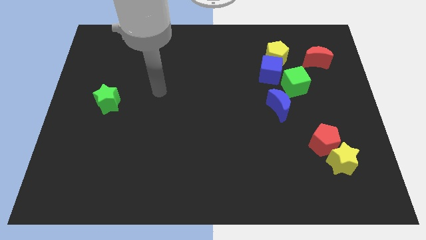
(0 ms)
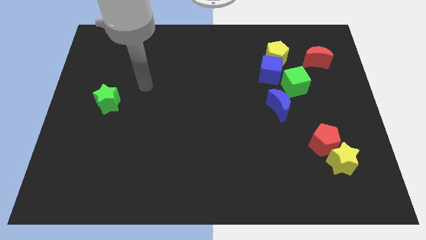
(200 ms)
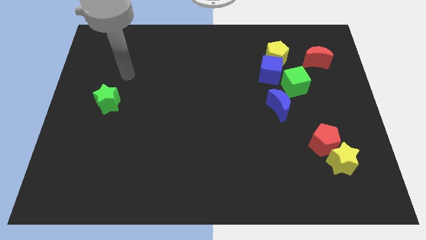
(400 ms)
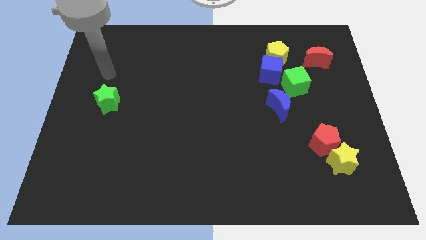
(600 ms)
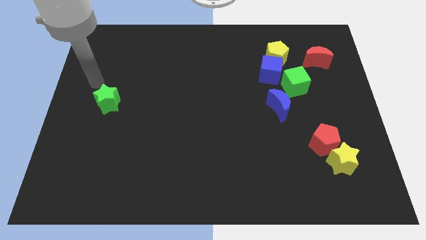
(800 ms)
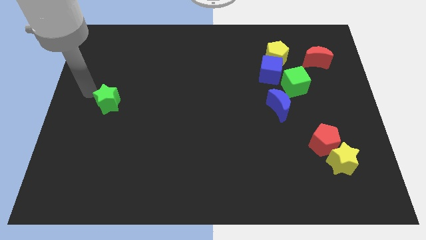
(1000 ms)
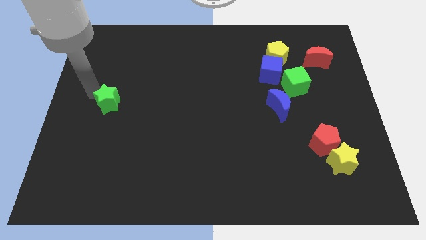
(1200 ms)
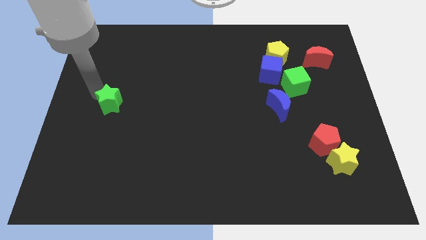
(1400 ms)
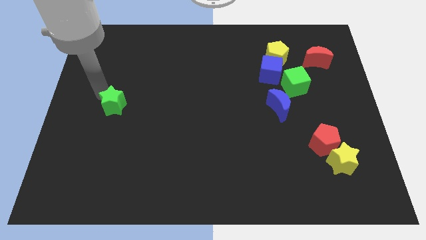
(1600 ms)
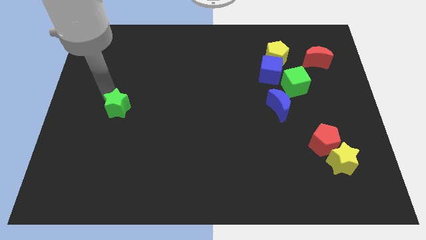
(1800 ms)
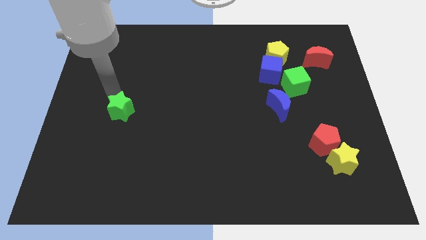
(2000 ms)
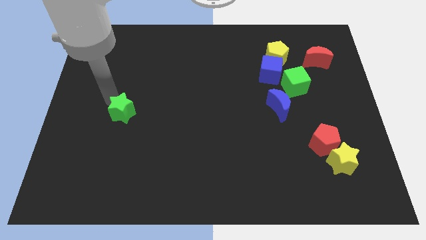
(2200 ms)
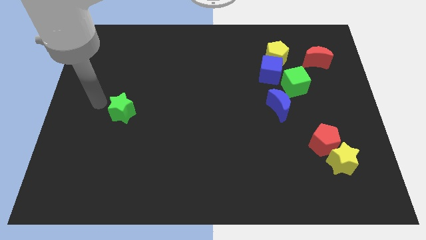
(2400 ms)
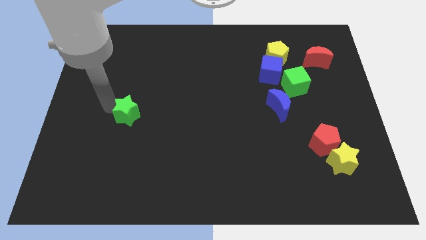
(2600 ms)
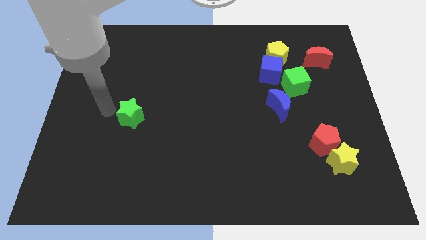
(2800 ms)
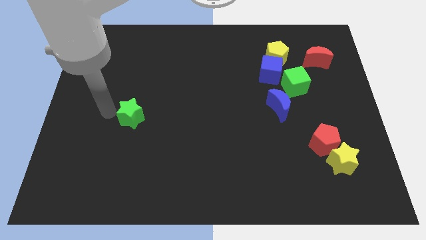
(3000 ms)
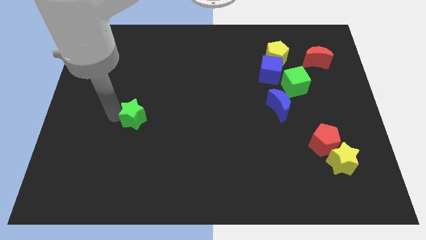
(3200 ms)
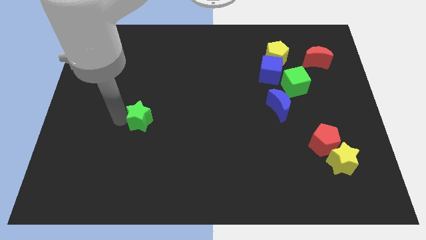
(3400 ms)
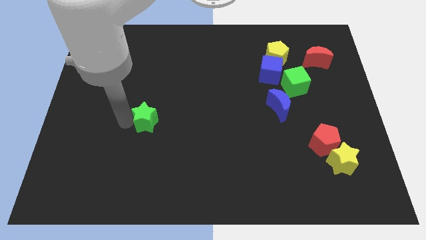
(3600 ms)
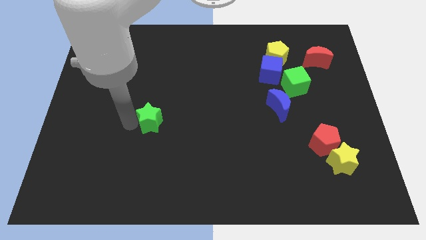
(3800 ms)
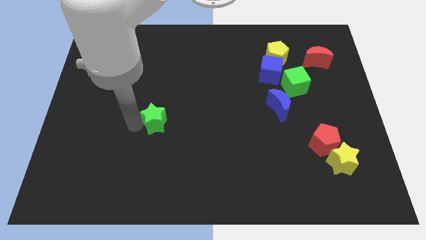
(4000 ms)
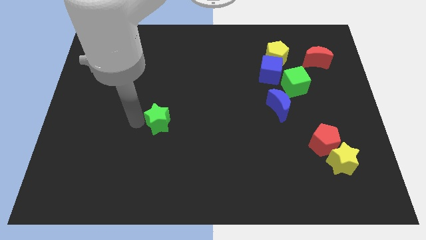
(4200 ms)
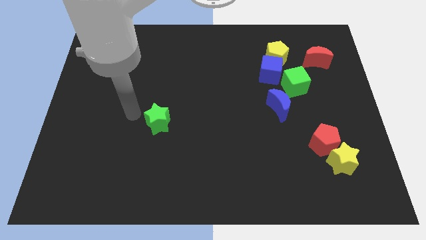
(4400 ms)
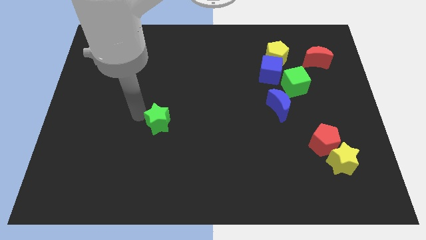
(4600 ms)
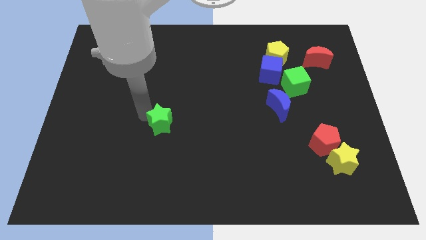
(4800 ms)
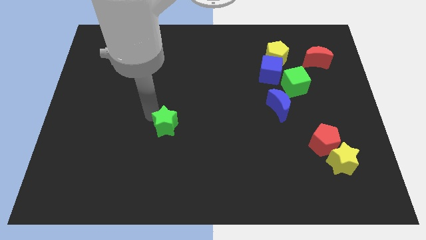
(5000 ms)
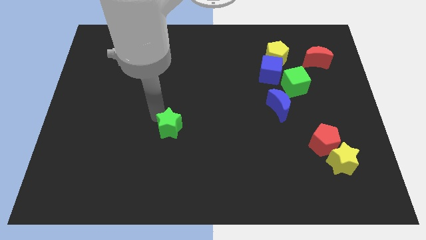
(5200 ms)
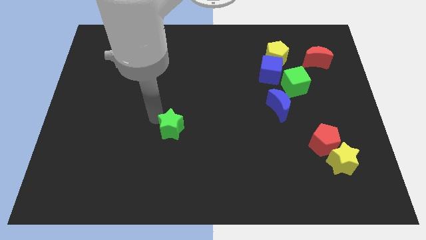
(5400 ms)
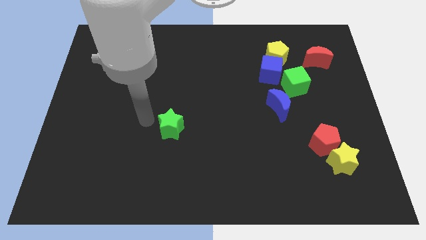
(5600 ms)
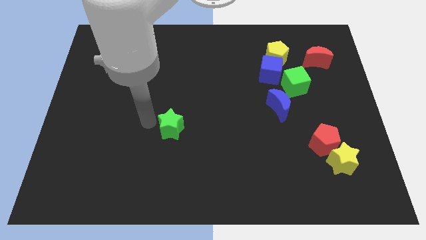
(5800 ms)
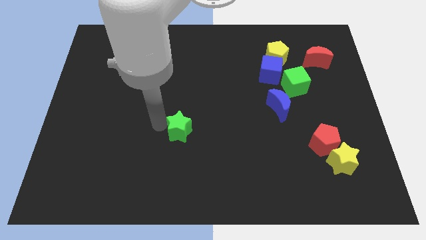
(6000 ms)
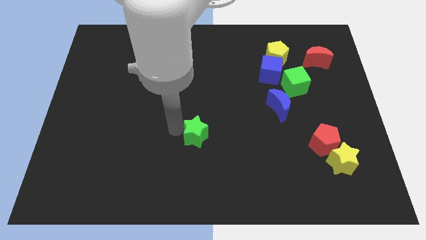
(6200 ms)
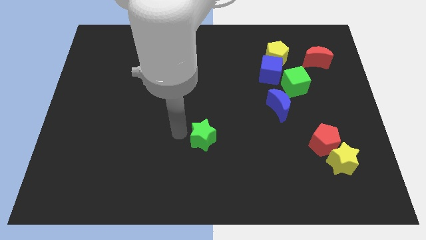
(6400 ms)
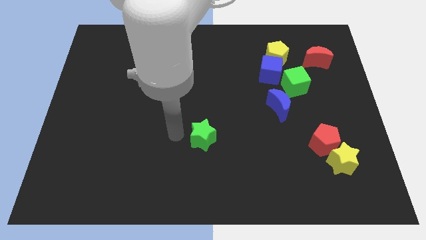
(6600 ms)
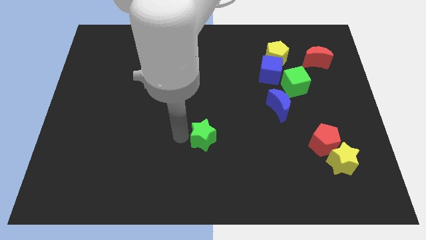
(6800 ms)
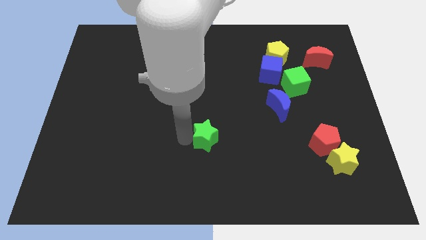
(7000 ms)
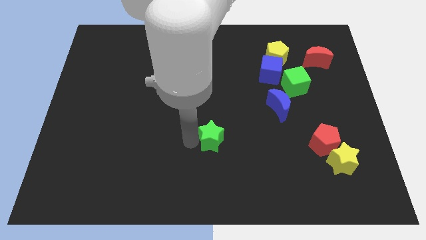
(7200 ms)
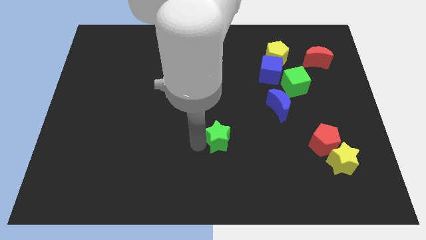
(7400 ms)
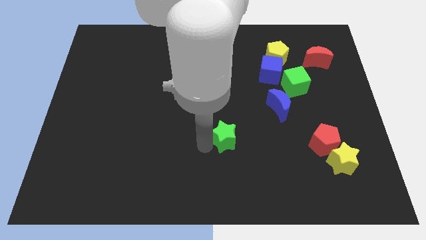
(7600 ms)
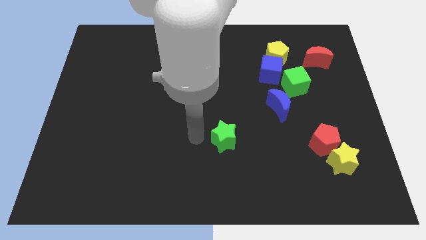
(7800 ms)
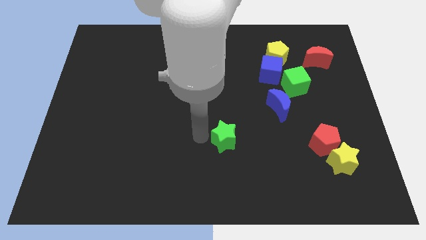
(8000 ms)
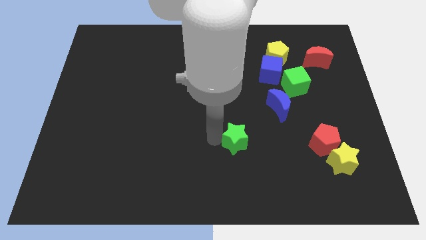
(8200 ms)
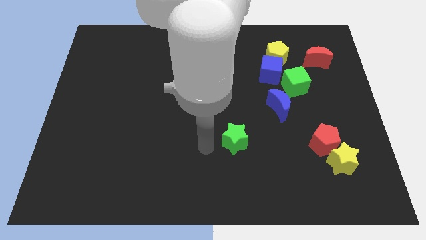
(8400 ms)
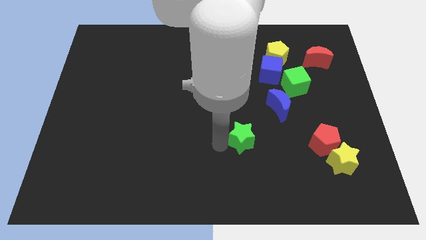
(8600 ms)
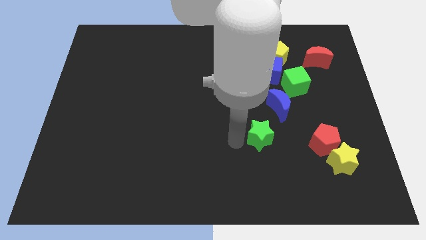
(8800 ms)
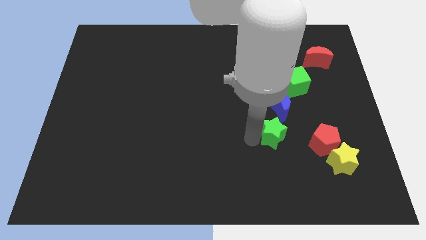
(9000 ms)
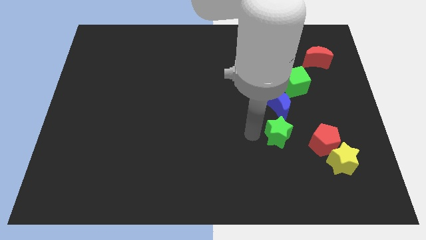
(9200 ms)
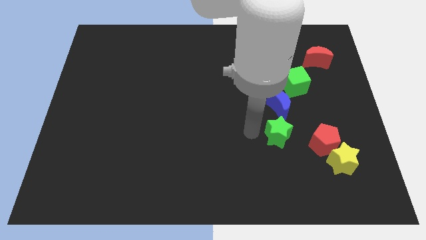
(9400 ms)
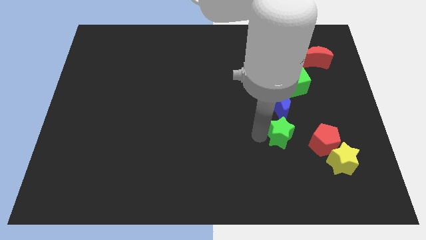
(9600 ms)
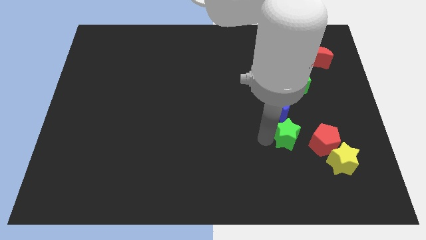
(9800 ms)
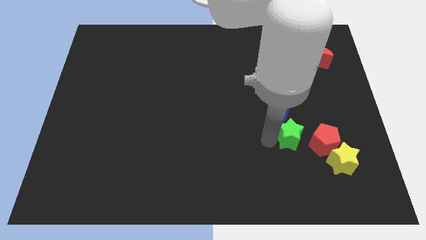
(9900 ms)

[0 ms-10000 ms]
push the green star diagonally up and to the left of the yellow star

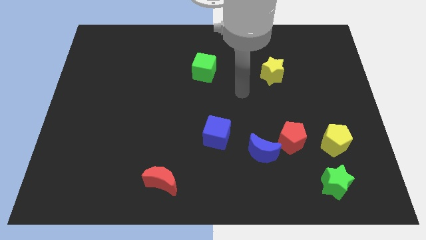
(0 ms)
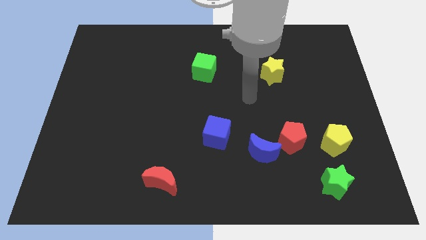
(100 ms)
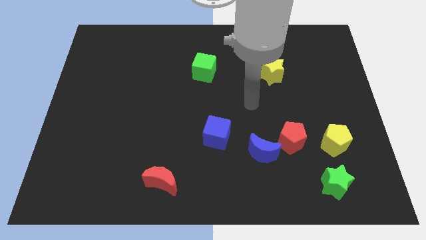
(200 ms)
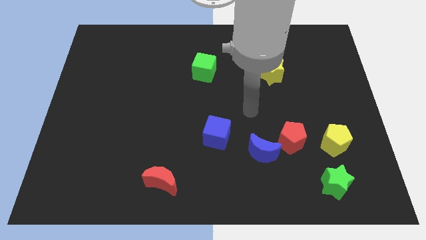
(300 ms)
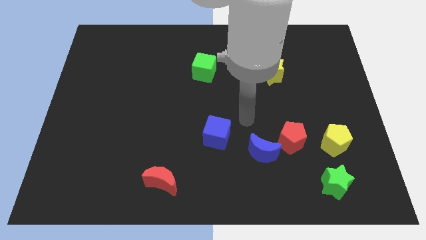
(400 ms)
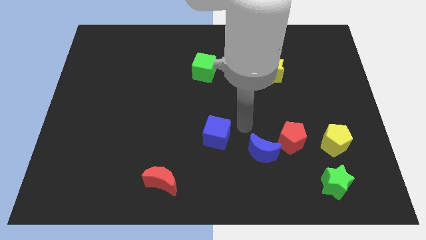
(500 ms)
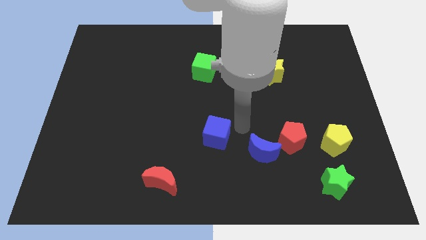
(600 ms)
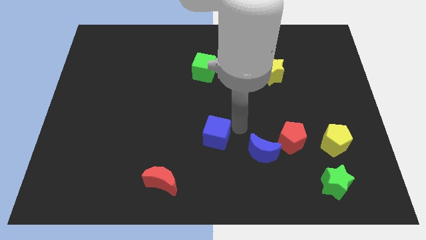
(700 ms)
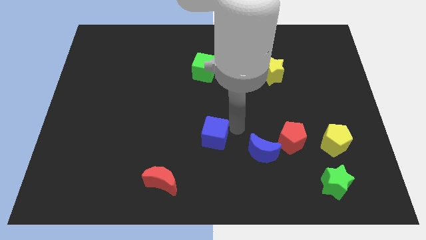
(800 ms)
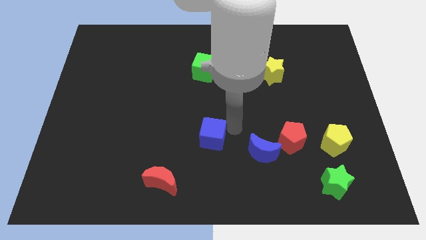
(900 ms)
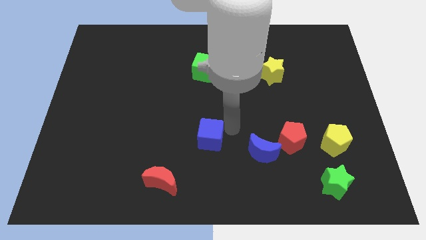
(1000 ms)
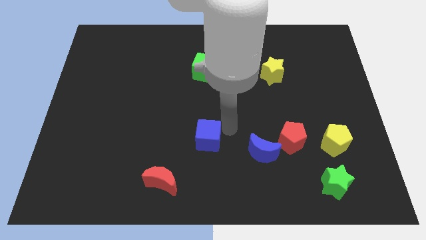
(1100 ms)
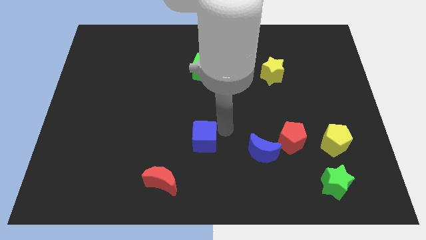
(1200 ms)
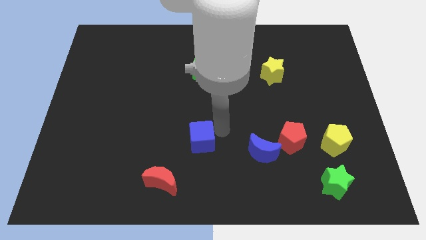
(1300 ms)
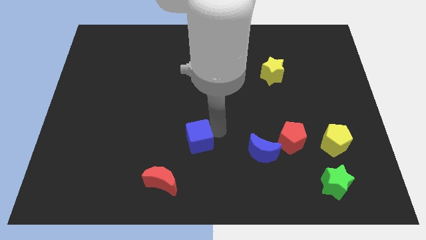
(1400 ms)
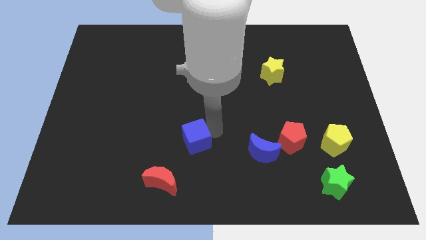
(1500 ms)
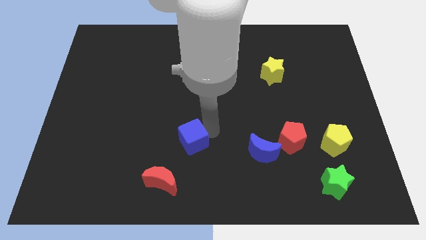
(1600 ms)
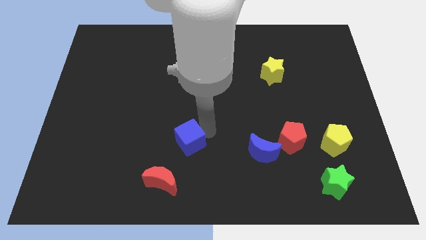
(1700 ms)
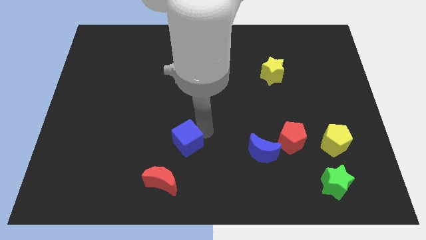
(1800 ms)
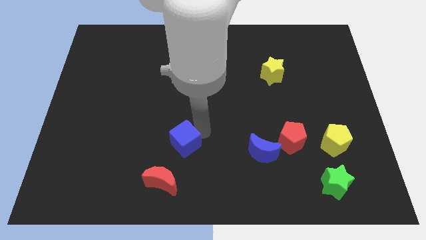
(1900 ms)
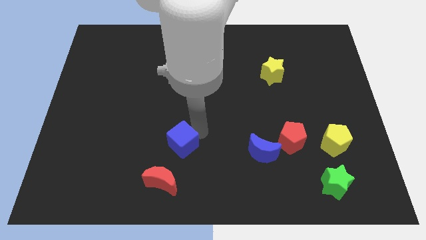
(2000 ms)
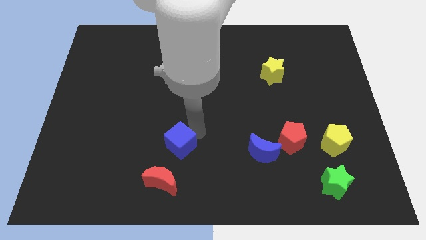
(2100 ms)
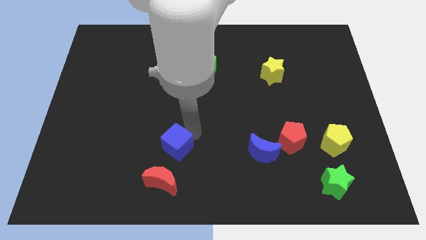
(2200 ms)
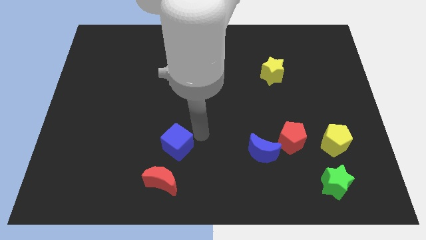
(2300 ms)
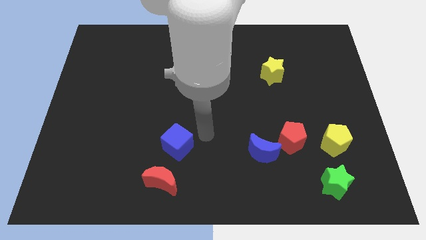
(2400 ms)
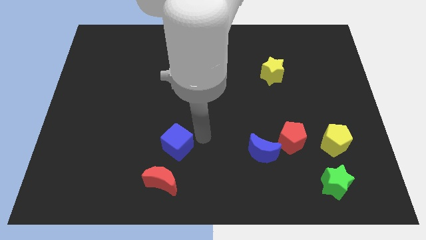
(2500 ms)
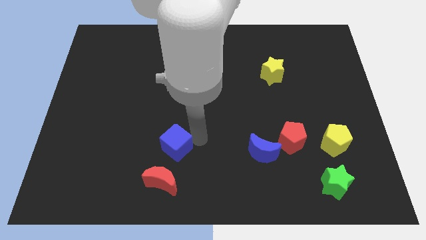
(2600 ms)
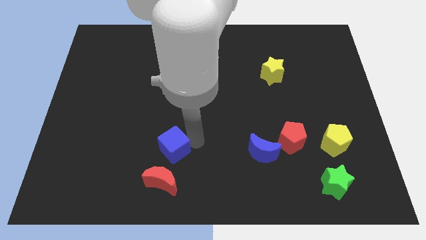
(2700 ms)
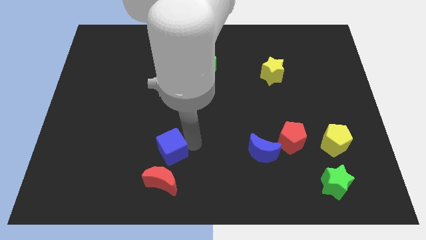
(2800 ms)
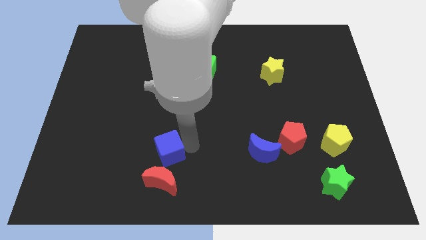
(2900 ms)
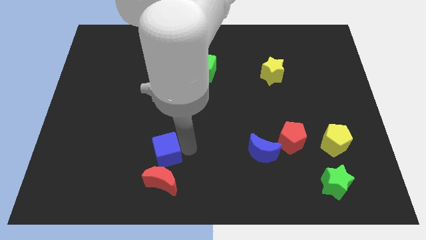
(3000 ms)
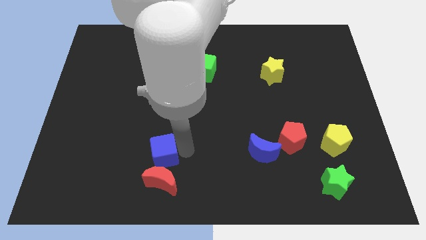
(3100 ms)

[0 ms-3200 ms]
push the blue cube to the top left side of the red moon
